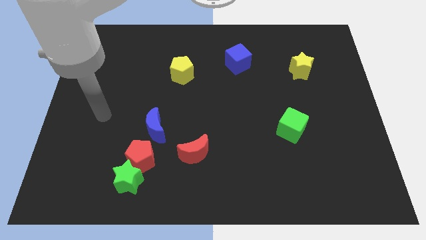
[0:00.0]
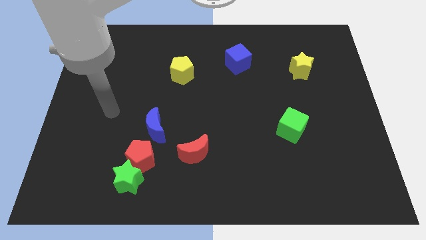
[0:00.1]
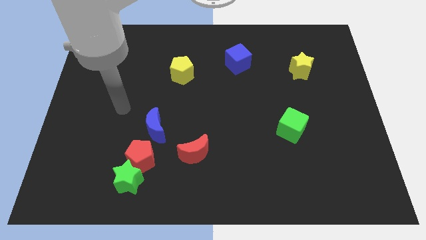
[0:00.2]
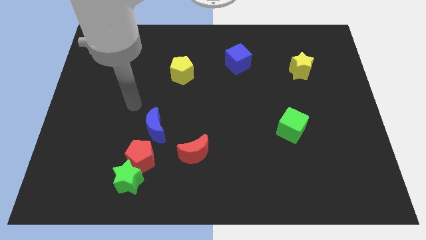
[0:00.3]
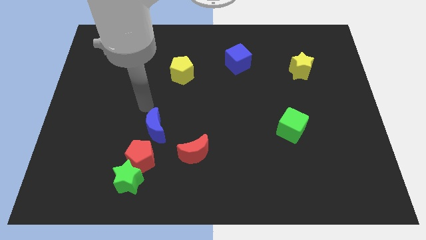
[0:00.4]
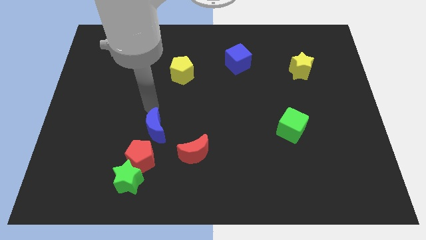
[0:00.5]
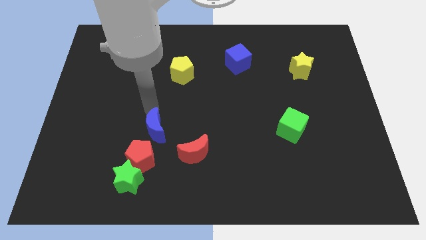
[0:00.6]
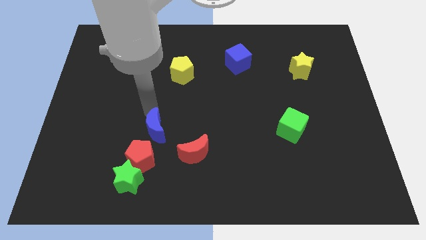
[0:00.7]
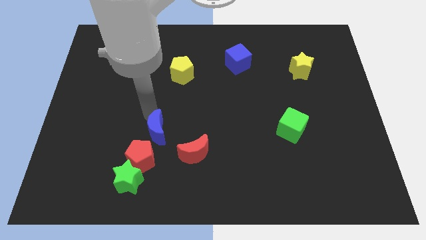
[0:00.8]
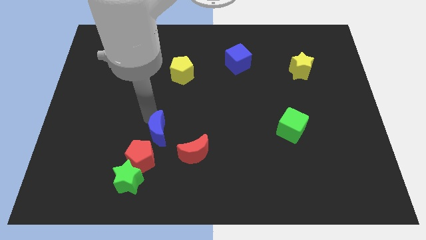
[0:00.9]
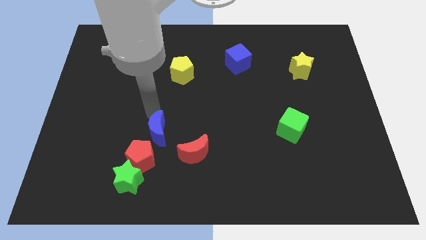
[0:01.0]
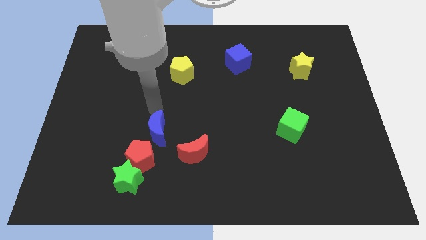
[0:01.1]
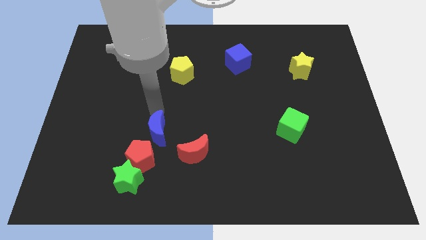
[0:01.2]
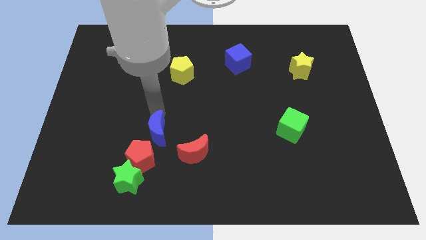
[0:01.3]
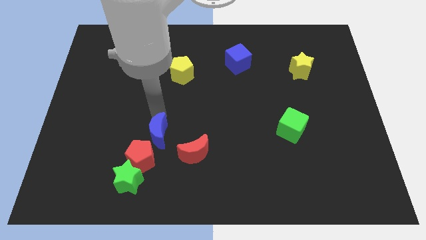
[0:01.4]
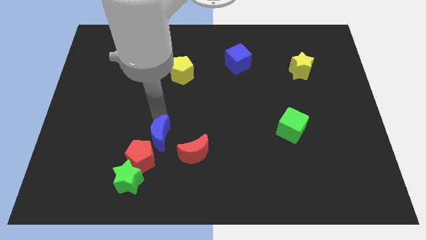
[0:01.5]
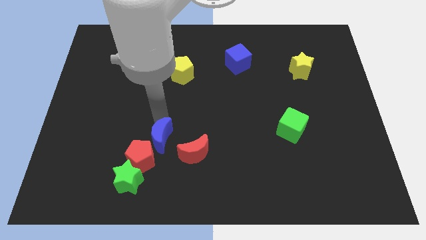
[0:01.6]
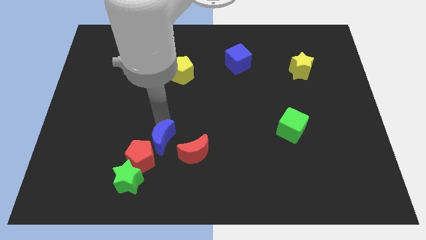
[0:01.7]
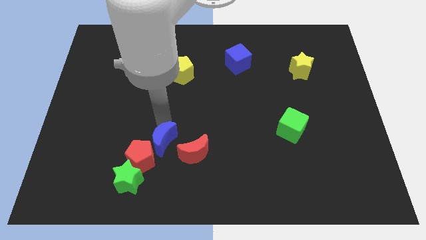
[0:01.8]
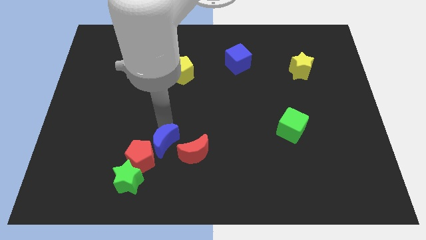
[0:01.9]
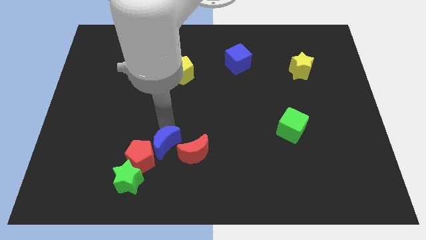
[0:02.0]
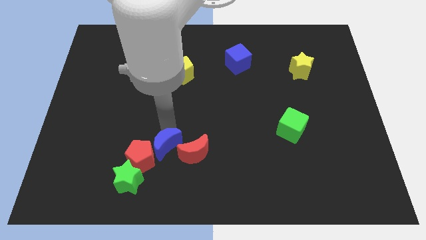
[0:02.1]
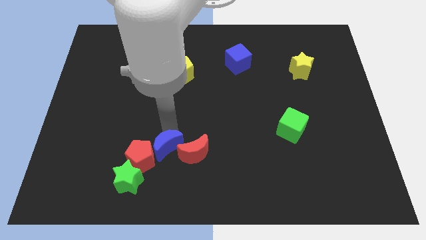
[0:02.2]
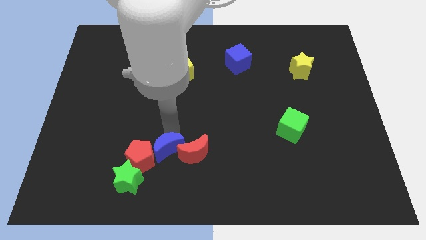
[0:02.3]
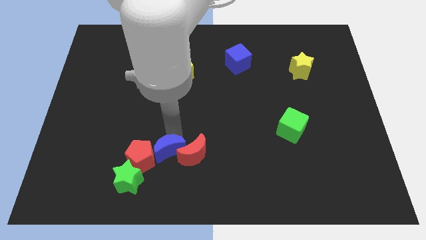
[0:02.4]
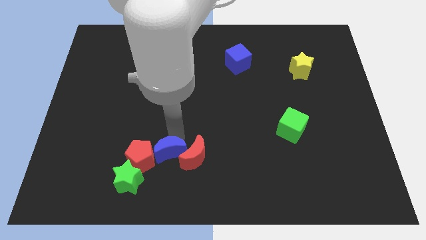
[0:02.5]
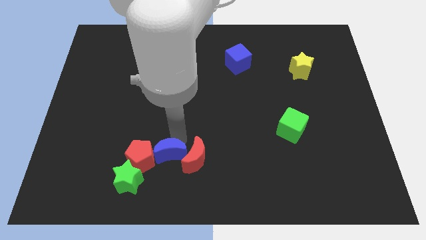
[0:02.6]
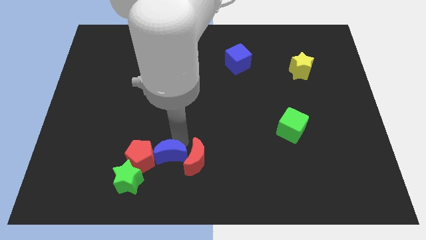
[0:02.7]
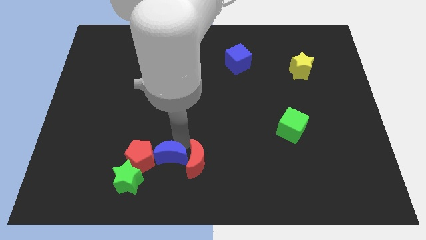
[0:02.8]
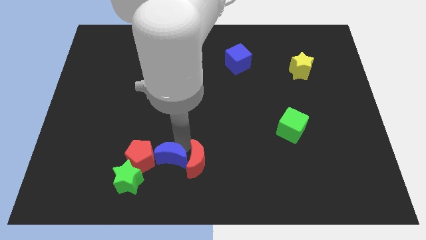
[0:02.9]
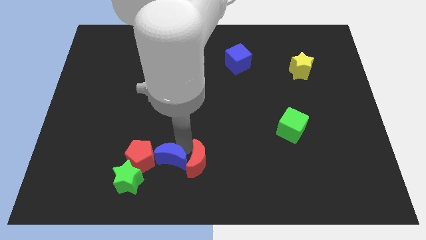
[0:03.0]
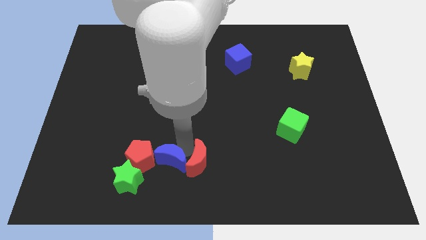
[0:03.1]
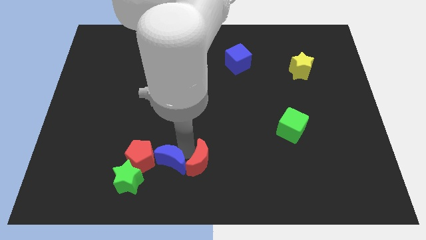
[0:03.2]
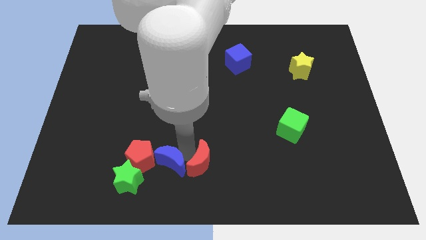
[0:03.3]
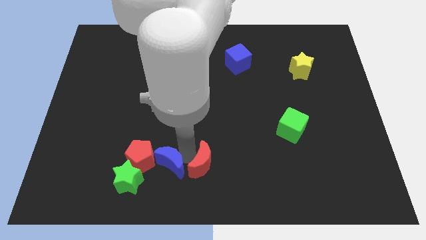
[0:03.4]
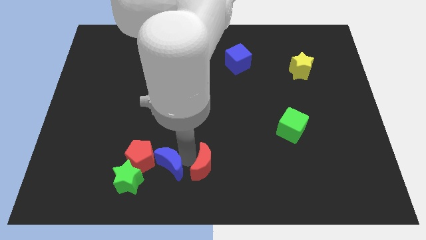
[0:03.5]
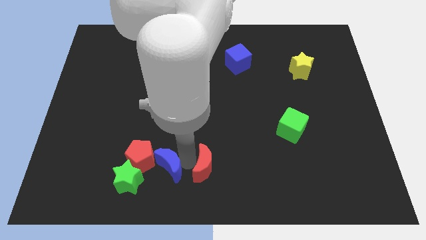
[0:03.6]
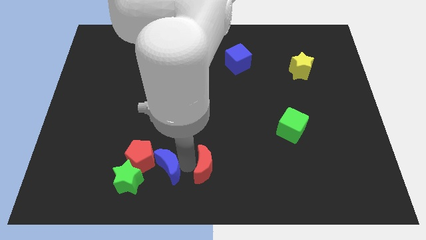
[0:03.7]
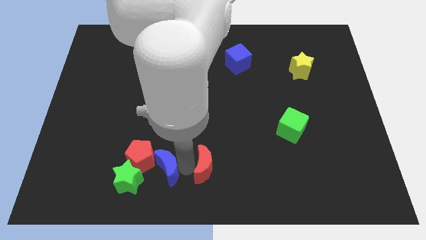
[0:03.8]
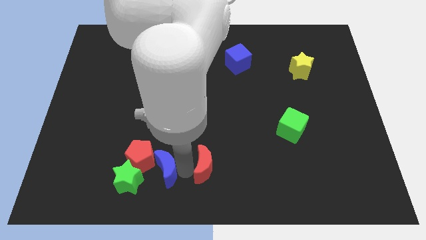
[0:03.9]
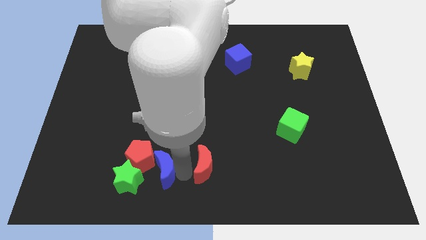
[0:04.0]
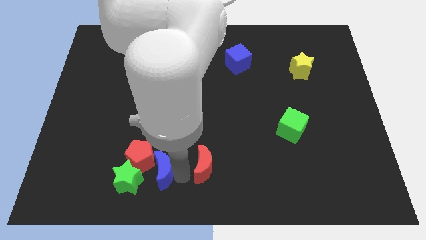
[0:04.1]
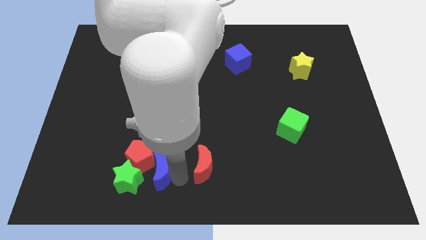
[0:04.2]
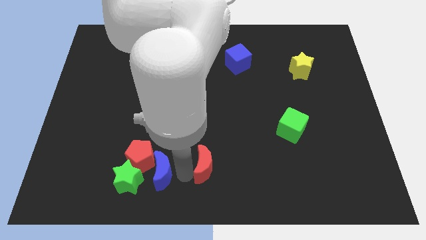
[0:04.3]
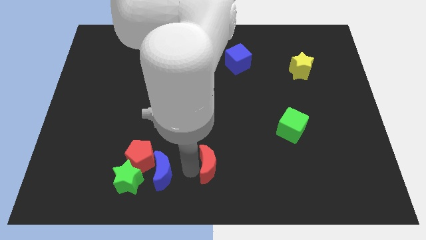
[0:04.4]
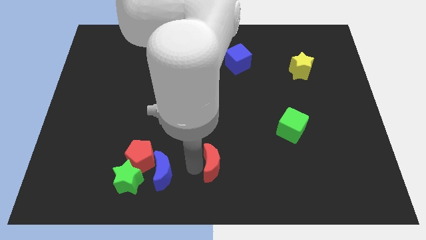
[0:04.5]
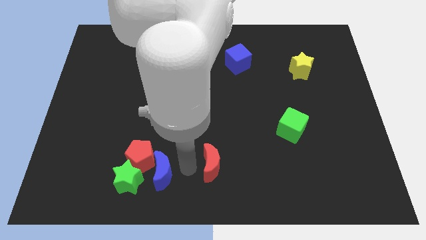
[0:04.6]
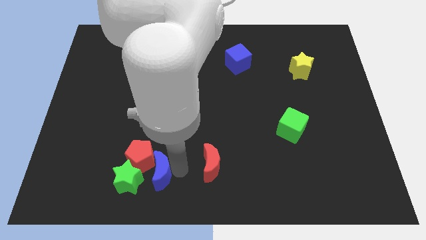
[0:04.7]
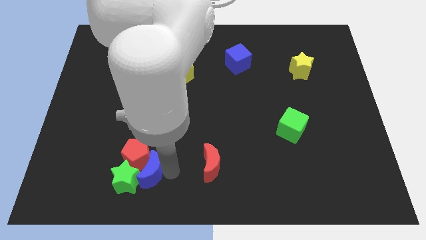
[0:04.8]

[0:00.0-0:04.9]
move the blue moon to the green star

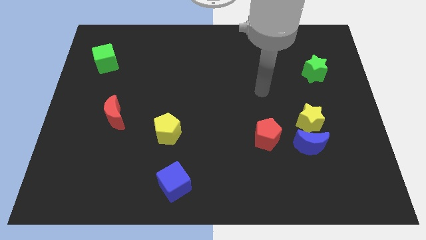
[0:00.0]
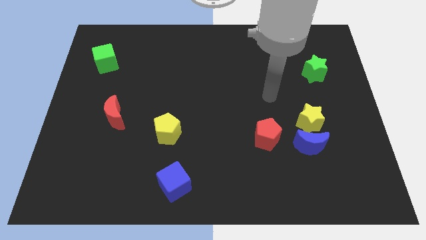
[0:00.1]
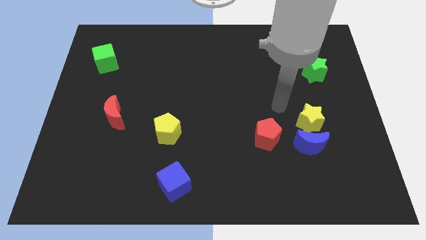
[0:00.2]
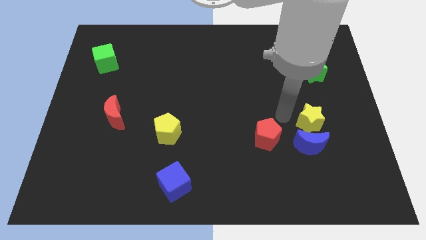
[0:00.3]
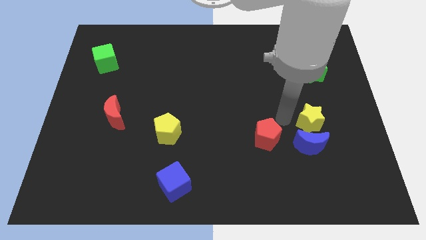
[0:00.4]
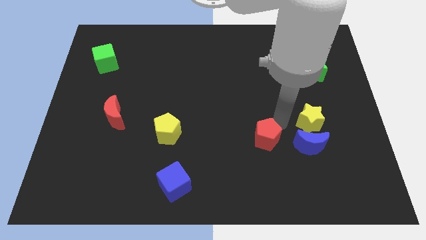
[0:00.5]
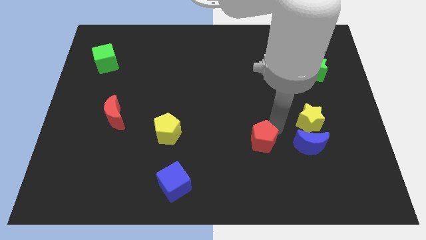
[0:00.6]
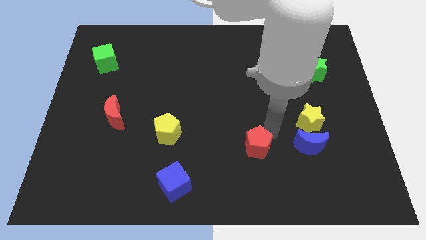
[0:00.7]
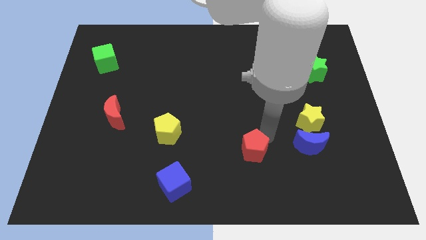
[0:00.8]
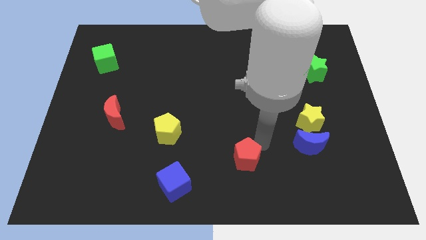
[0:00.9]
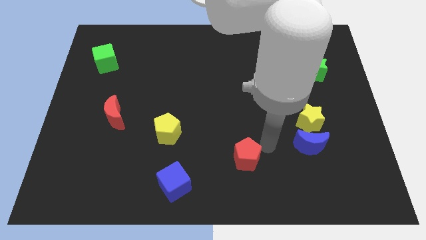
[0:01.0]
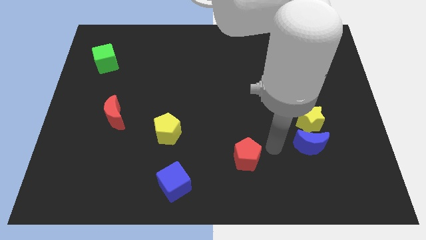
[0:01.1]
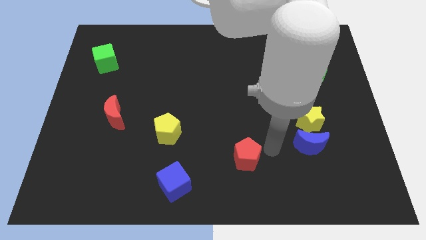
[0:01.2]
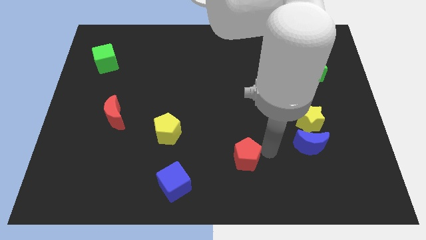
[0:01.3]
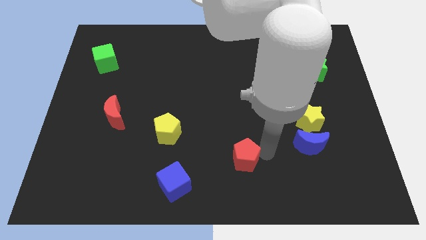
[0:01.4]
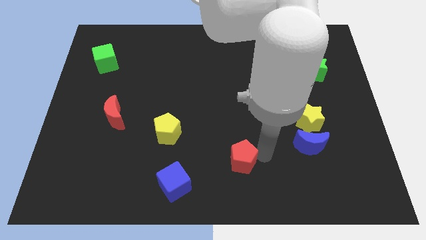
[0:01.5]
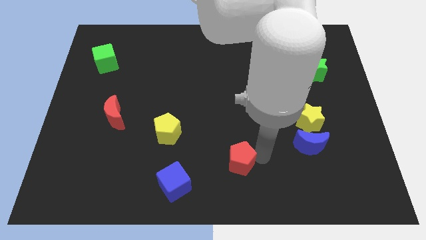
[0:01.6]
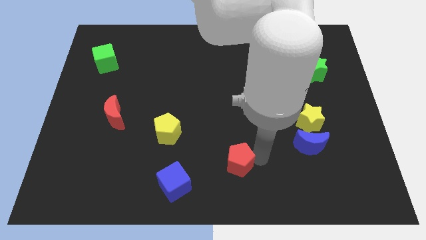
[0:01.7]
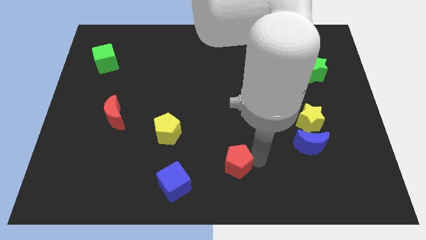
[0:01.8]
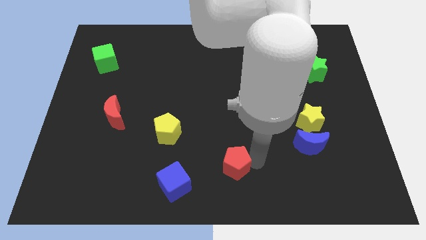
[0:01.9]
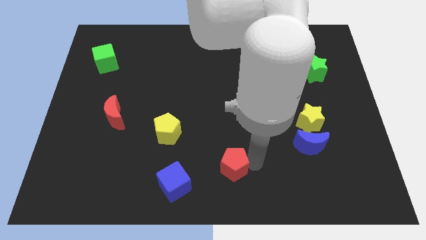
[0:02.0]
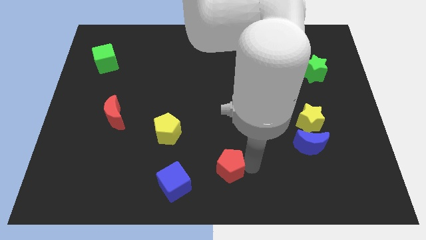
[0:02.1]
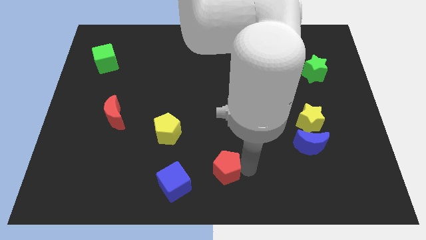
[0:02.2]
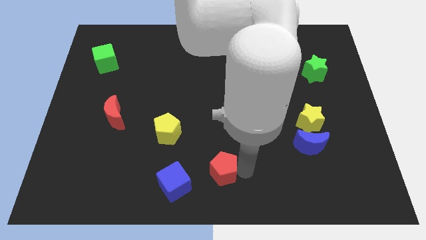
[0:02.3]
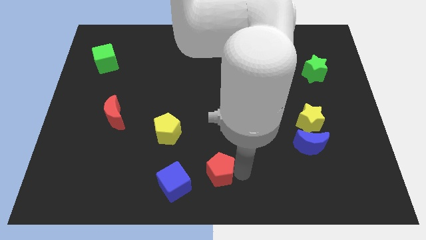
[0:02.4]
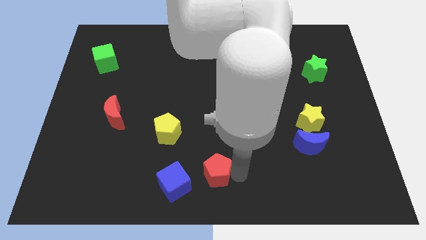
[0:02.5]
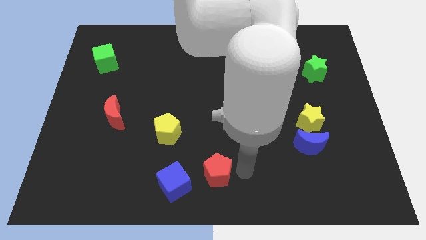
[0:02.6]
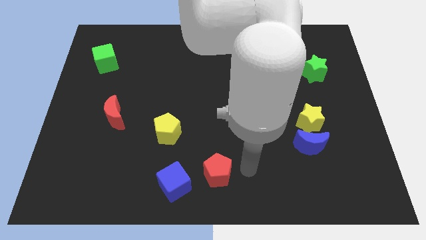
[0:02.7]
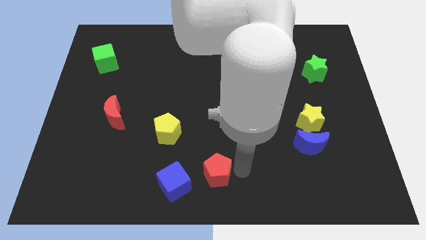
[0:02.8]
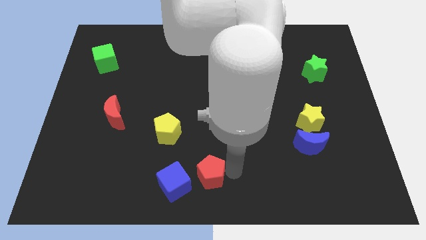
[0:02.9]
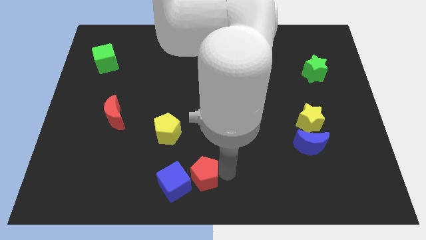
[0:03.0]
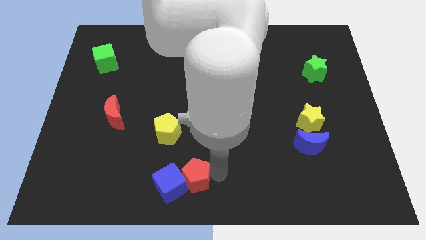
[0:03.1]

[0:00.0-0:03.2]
push the red pentagon towards the blue cube
